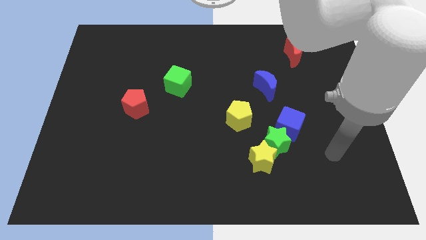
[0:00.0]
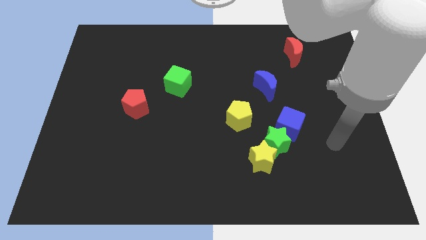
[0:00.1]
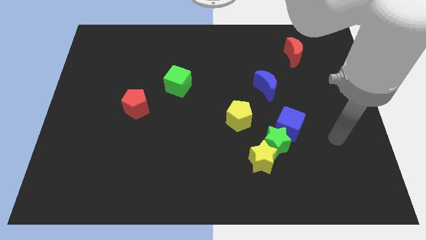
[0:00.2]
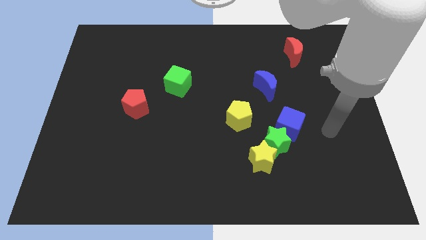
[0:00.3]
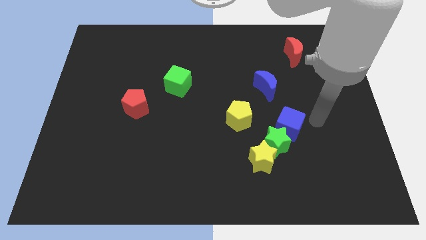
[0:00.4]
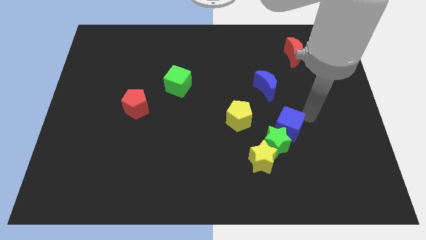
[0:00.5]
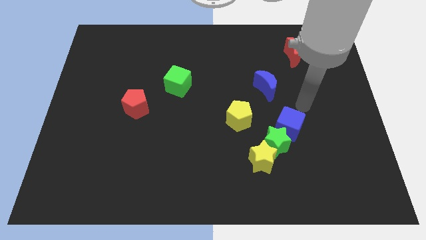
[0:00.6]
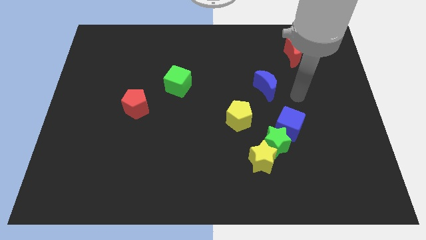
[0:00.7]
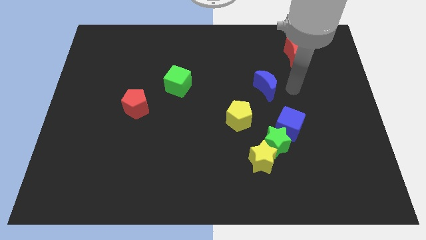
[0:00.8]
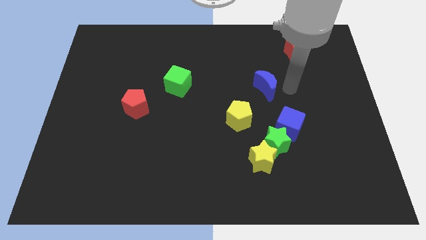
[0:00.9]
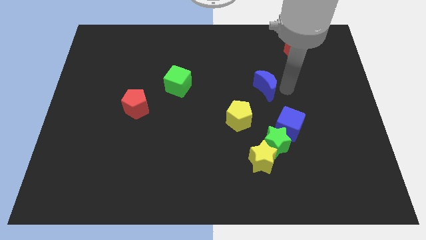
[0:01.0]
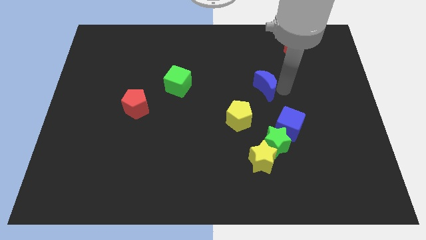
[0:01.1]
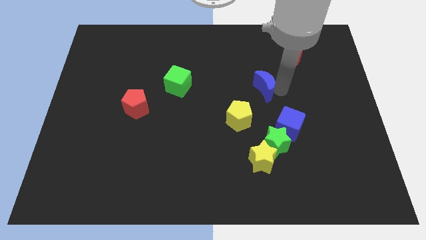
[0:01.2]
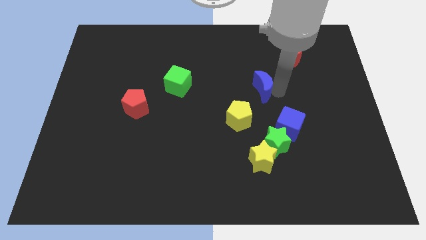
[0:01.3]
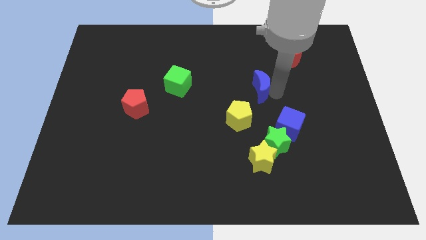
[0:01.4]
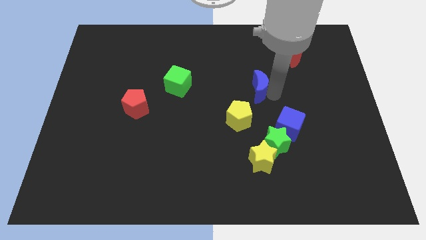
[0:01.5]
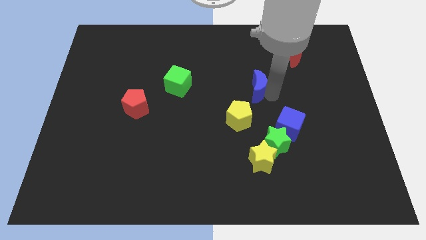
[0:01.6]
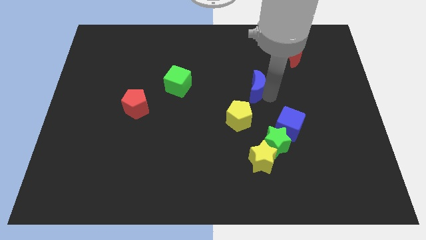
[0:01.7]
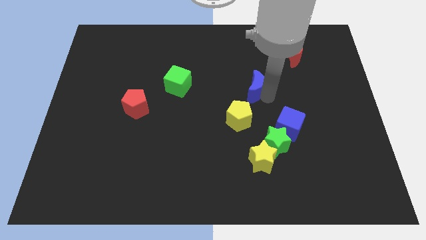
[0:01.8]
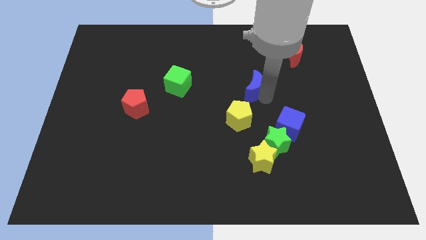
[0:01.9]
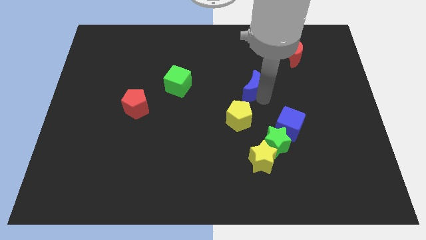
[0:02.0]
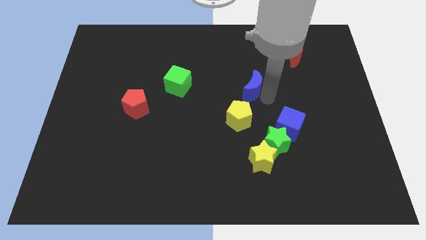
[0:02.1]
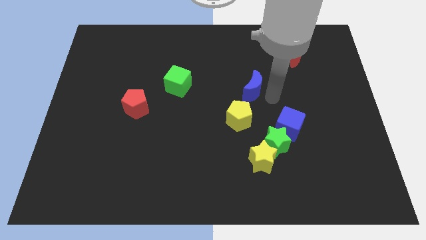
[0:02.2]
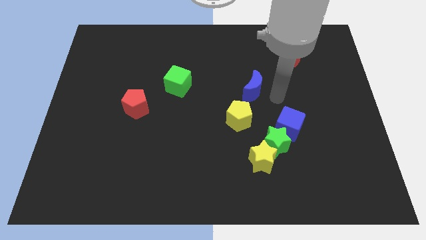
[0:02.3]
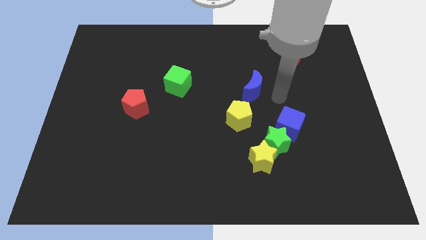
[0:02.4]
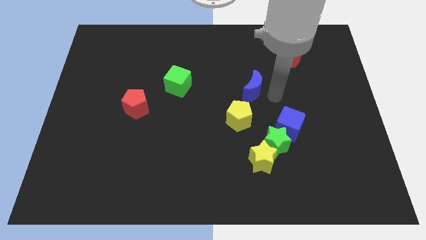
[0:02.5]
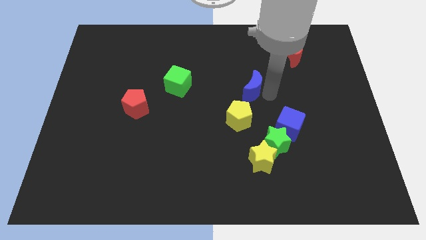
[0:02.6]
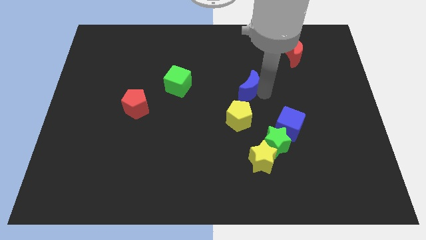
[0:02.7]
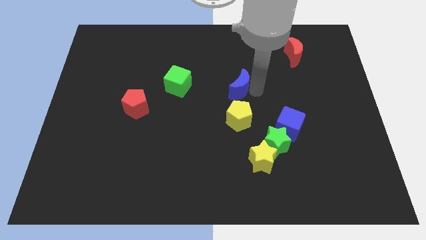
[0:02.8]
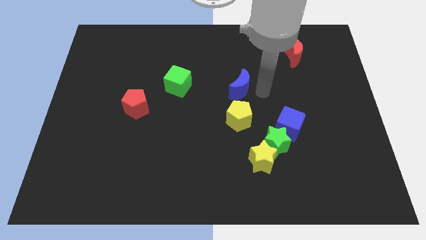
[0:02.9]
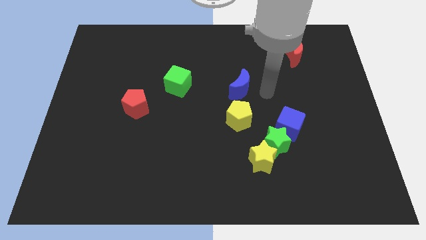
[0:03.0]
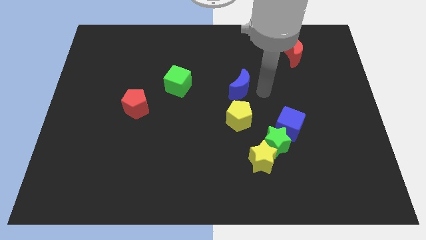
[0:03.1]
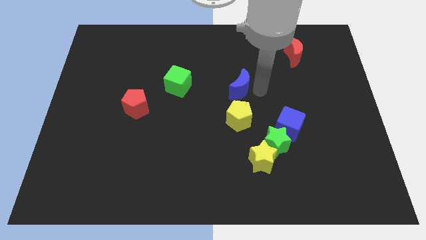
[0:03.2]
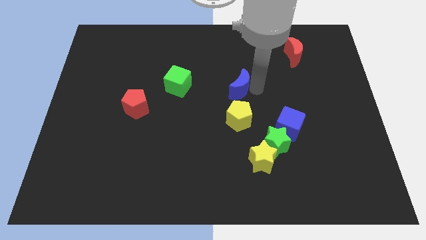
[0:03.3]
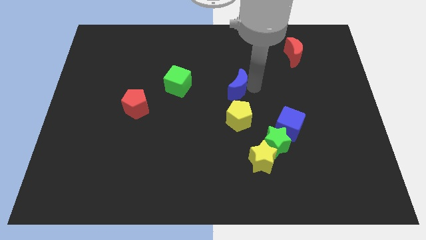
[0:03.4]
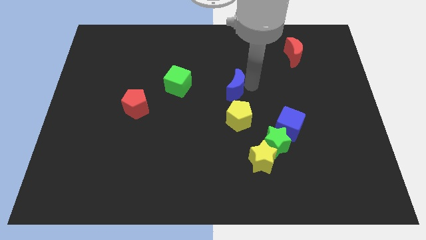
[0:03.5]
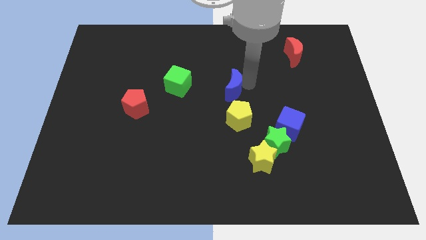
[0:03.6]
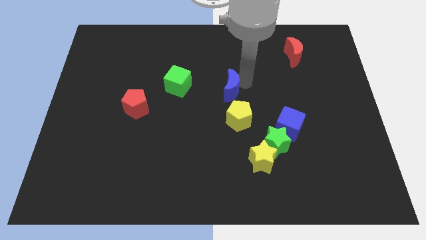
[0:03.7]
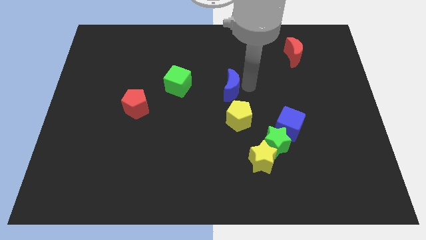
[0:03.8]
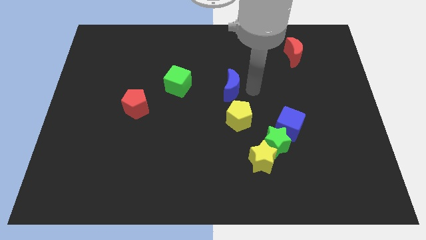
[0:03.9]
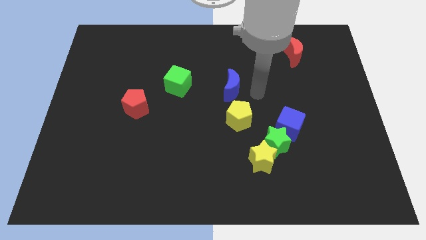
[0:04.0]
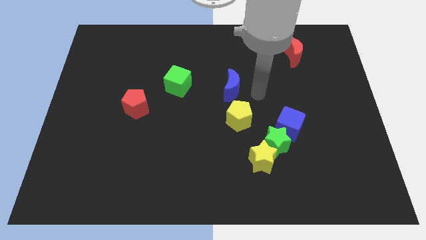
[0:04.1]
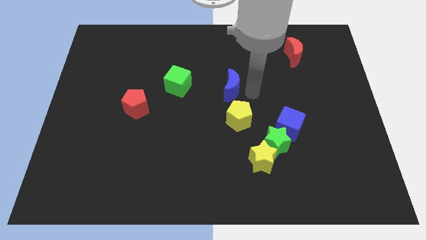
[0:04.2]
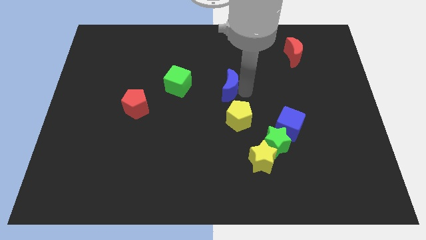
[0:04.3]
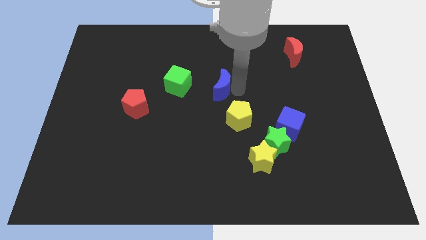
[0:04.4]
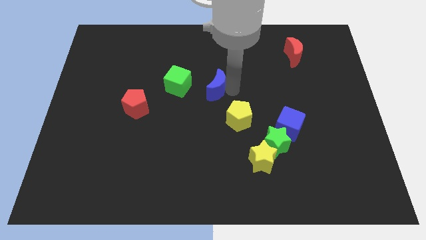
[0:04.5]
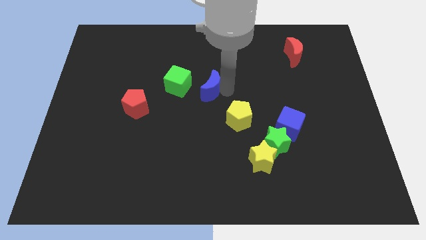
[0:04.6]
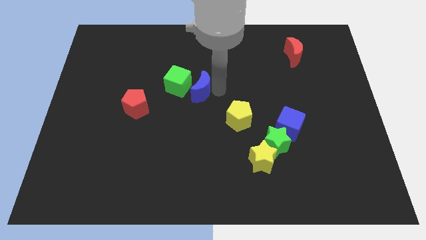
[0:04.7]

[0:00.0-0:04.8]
move the blue moon next to the green cube

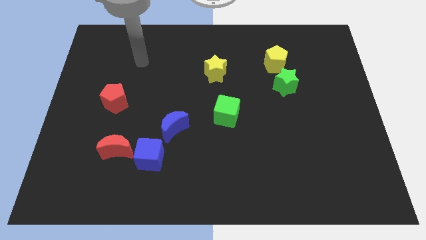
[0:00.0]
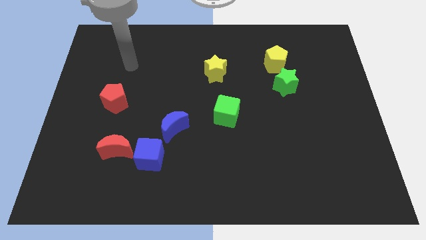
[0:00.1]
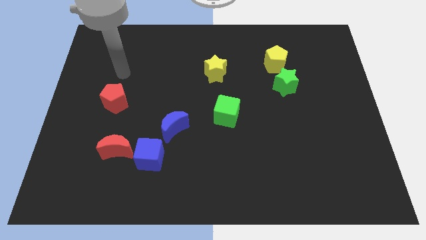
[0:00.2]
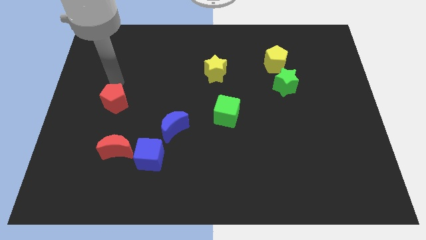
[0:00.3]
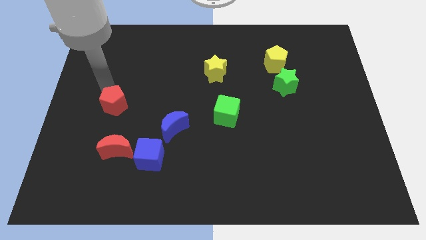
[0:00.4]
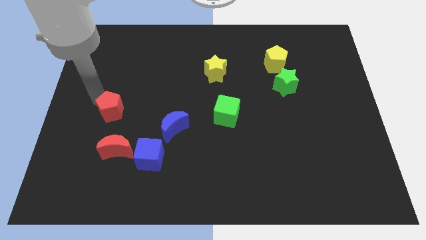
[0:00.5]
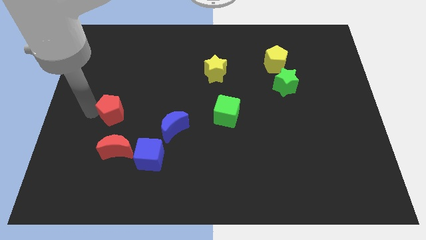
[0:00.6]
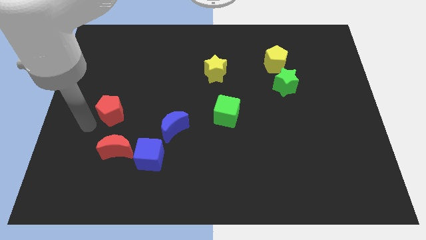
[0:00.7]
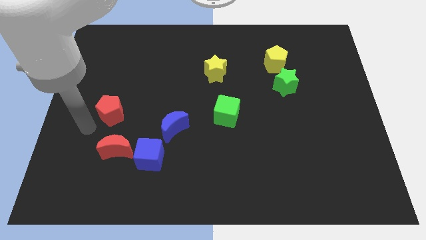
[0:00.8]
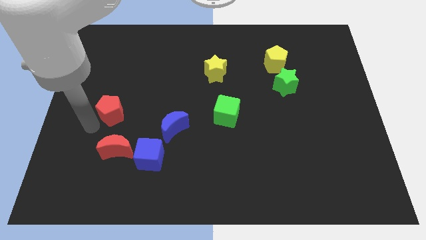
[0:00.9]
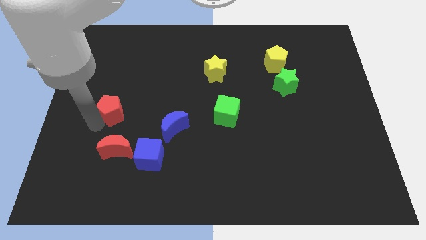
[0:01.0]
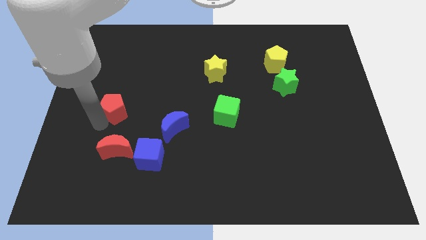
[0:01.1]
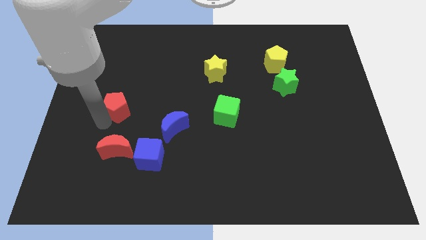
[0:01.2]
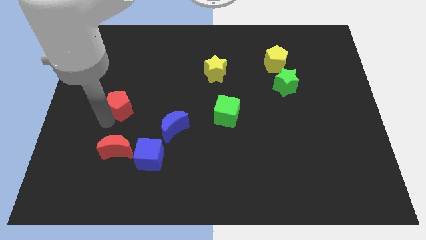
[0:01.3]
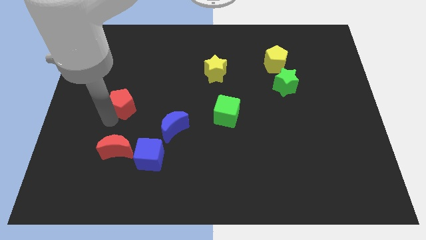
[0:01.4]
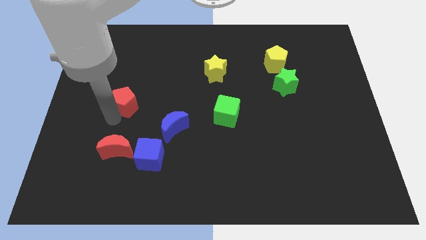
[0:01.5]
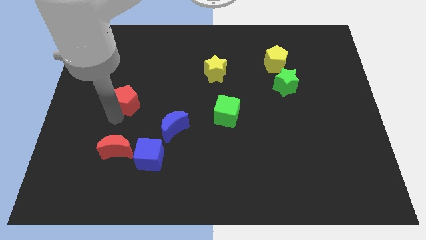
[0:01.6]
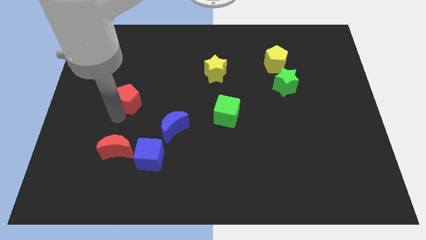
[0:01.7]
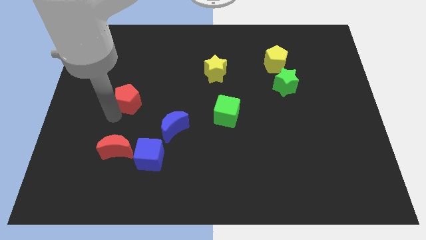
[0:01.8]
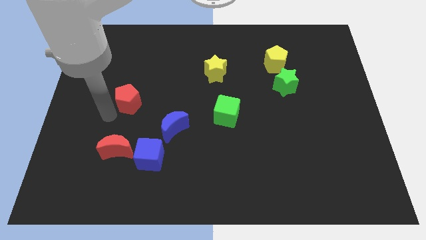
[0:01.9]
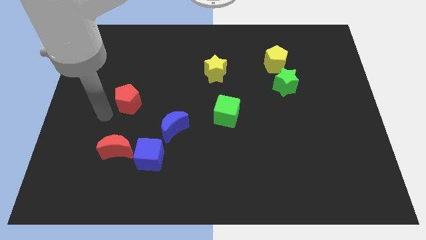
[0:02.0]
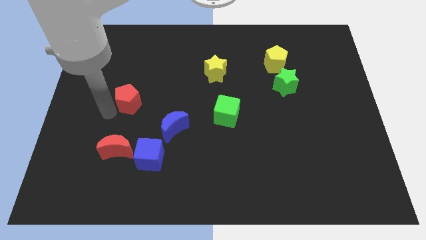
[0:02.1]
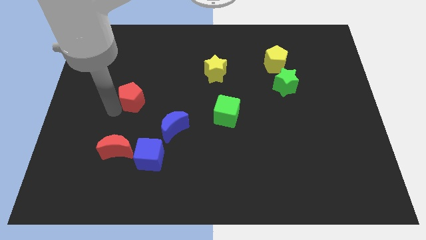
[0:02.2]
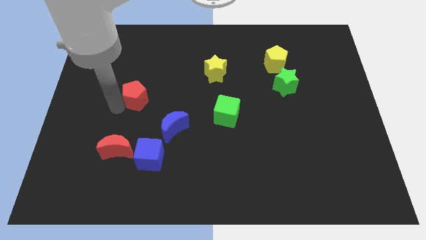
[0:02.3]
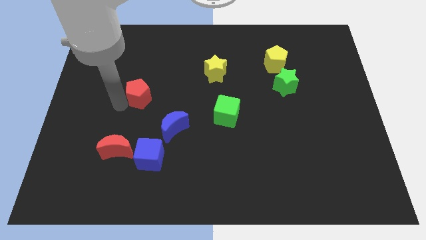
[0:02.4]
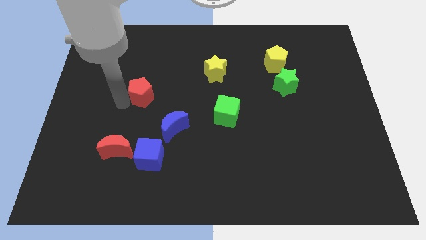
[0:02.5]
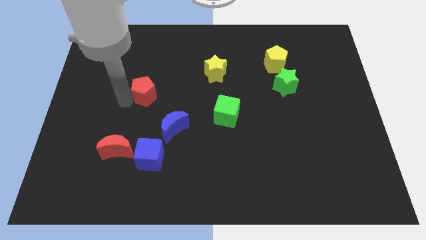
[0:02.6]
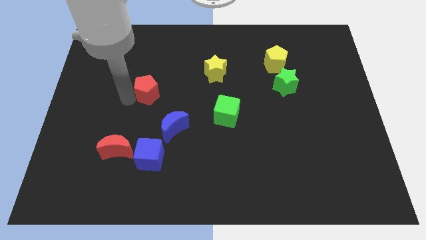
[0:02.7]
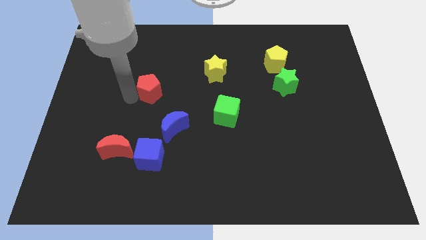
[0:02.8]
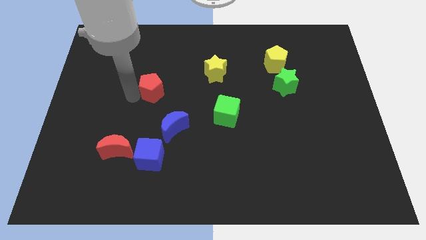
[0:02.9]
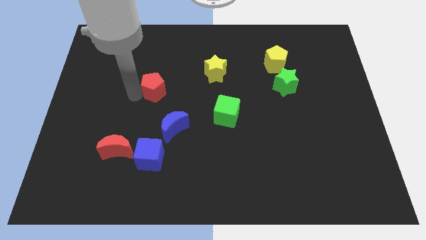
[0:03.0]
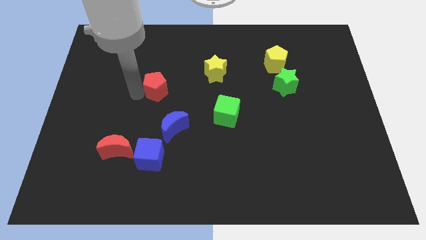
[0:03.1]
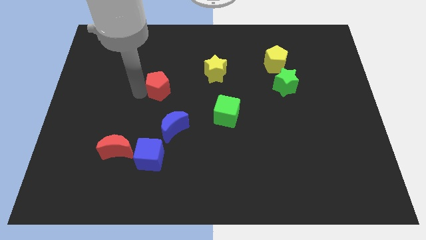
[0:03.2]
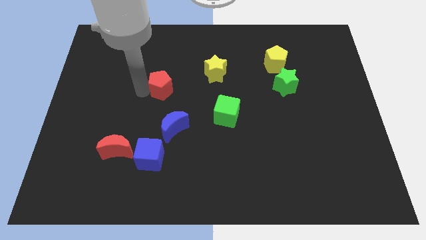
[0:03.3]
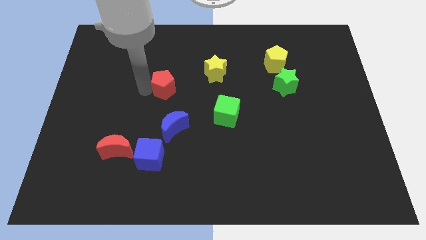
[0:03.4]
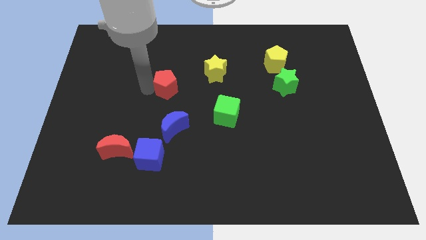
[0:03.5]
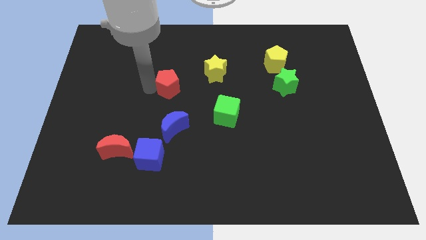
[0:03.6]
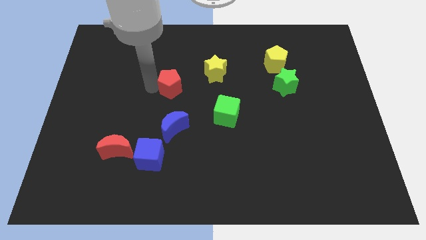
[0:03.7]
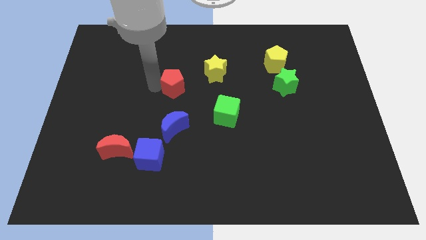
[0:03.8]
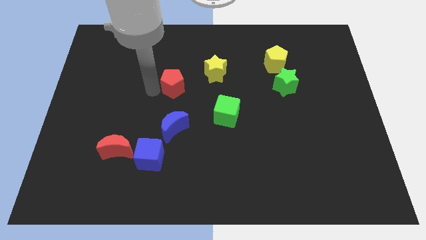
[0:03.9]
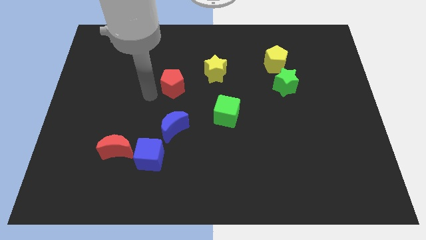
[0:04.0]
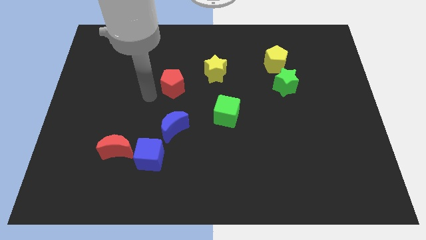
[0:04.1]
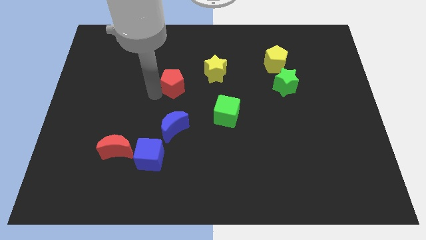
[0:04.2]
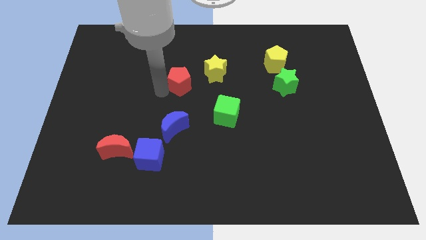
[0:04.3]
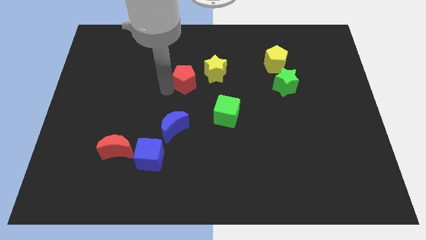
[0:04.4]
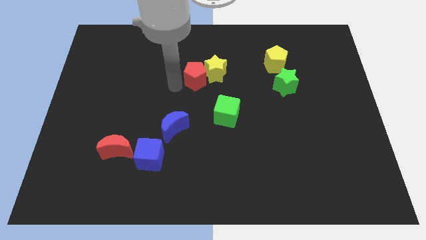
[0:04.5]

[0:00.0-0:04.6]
move the red pentagon next to the yellow star
